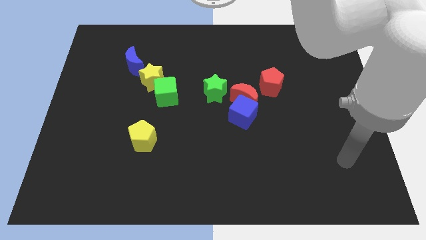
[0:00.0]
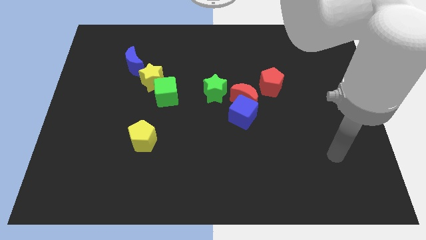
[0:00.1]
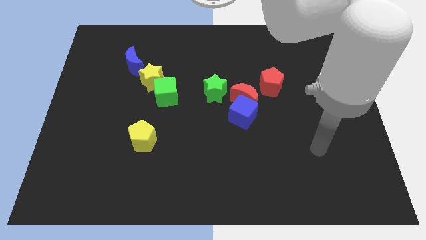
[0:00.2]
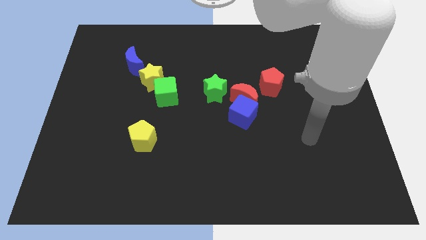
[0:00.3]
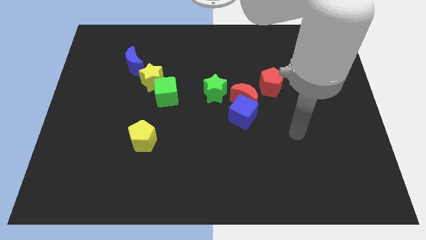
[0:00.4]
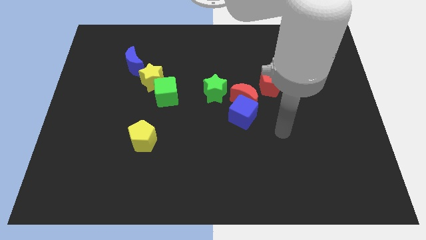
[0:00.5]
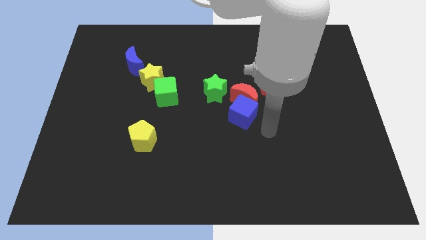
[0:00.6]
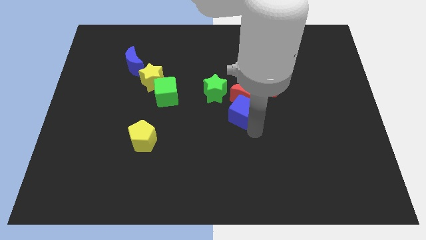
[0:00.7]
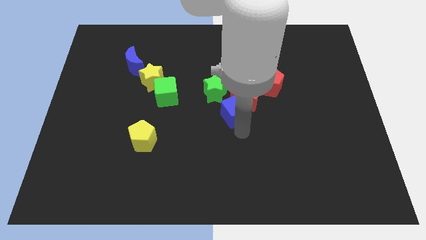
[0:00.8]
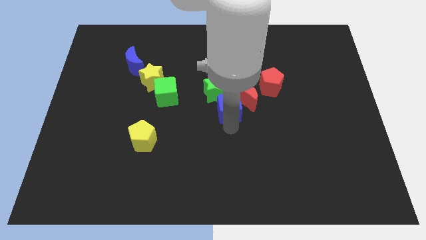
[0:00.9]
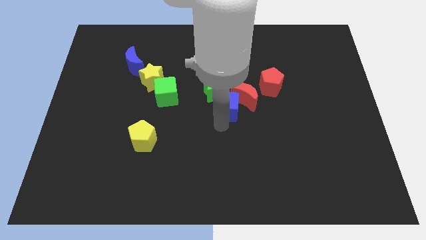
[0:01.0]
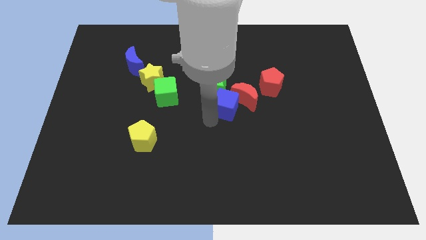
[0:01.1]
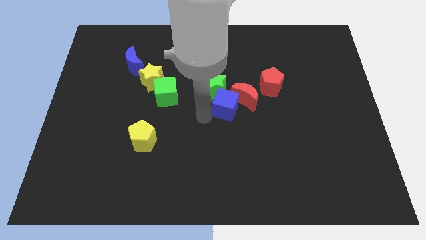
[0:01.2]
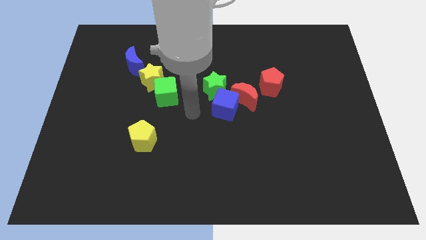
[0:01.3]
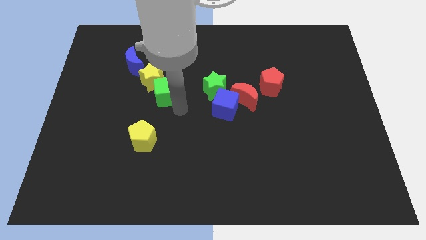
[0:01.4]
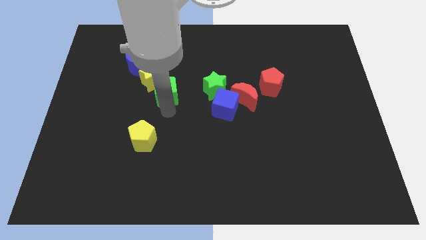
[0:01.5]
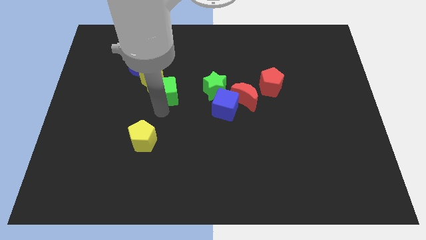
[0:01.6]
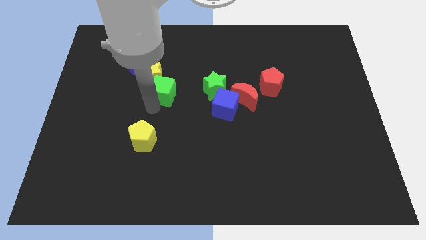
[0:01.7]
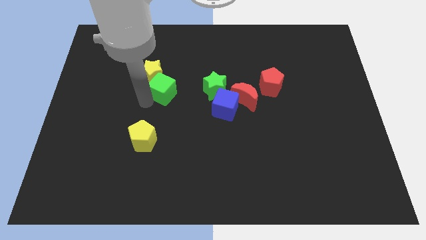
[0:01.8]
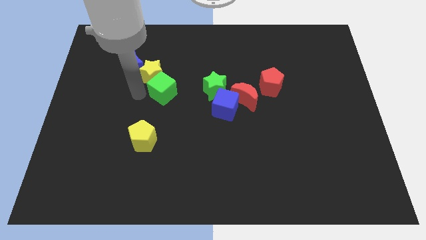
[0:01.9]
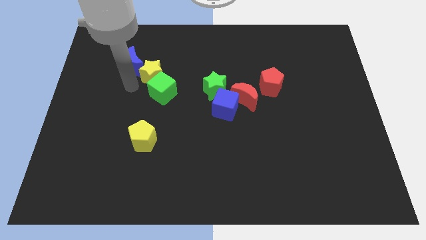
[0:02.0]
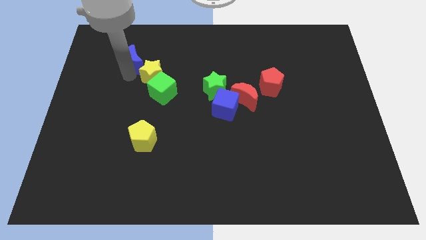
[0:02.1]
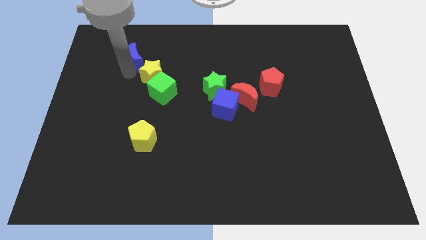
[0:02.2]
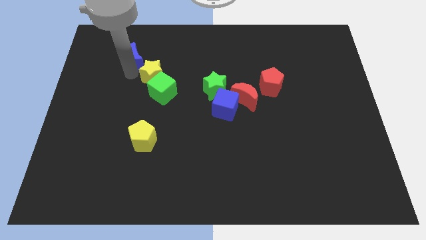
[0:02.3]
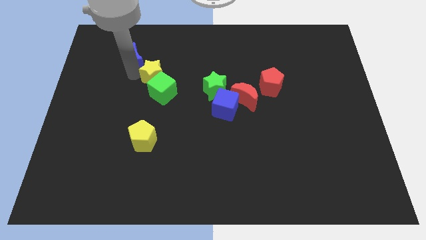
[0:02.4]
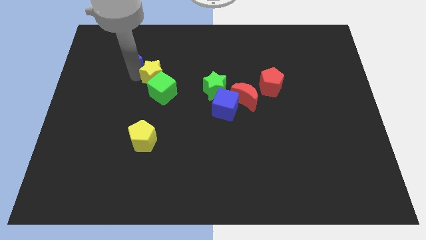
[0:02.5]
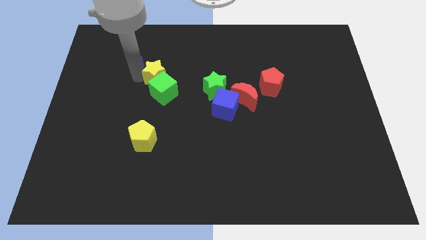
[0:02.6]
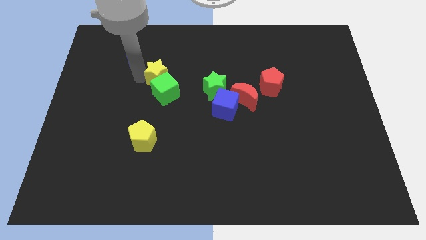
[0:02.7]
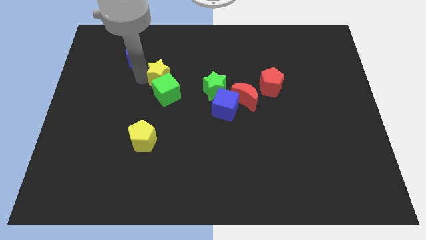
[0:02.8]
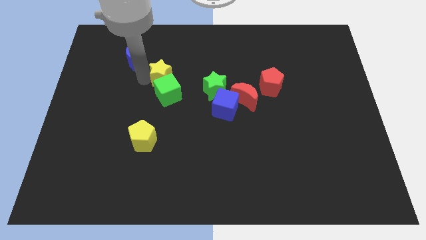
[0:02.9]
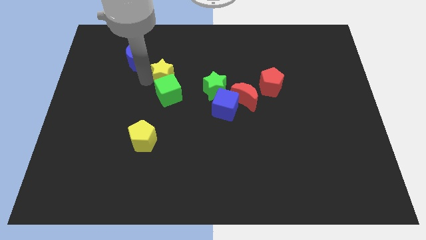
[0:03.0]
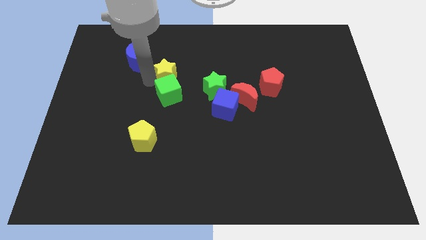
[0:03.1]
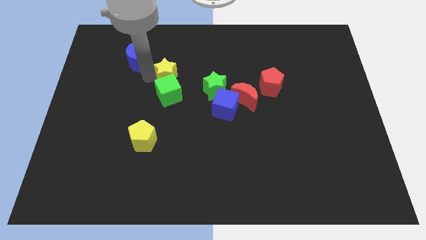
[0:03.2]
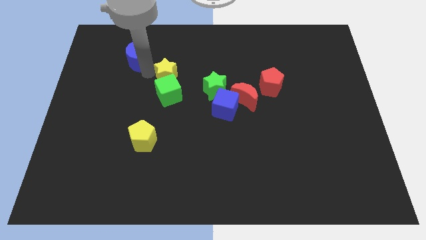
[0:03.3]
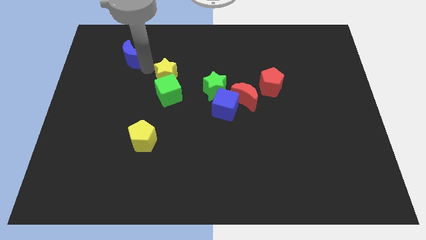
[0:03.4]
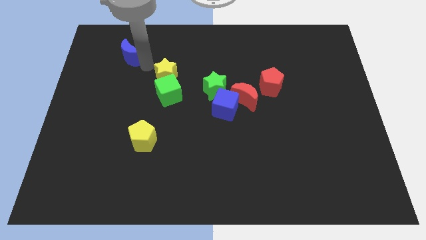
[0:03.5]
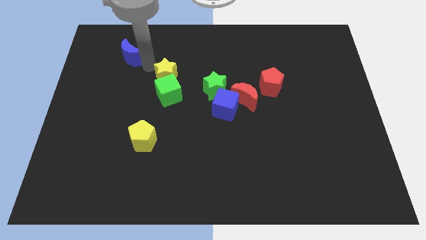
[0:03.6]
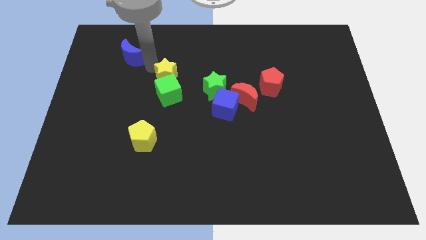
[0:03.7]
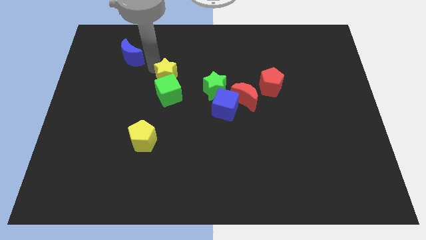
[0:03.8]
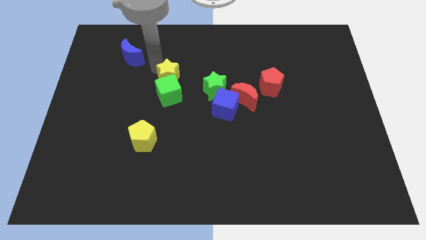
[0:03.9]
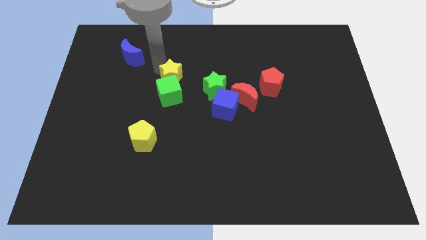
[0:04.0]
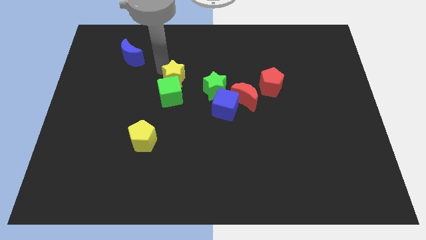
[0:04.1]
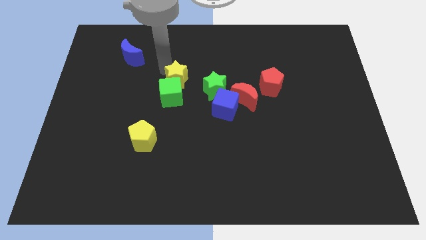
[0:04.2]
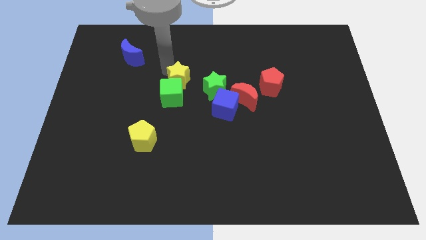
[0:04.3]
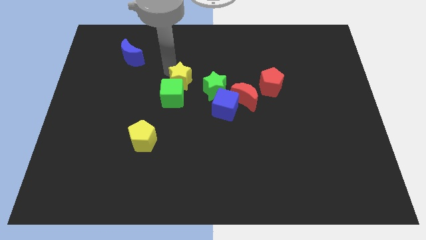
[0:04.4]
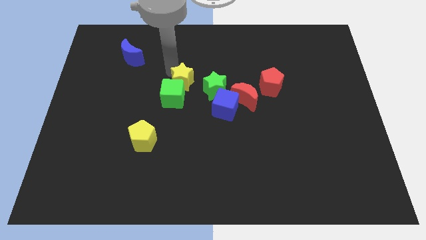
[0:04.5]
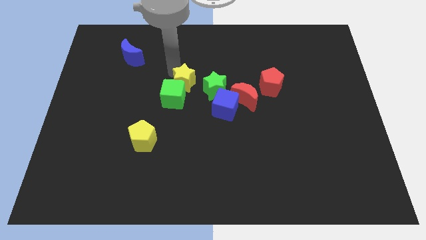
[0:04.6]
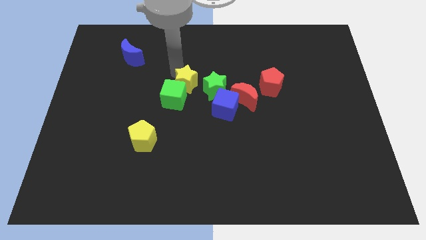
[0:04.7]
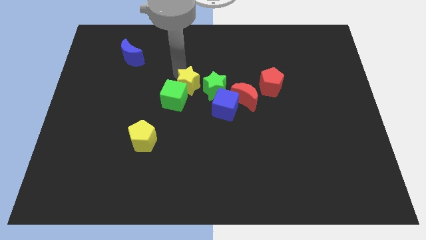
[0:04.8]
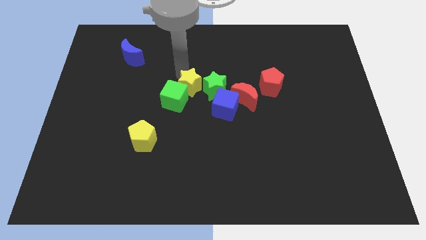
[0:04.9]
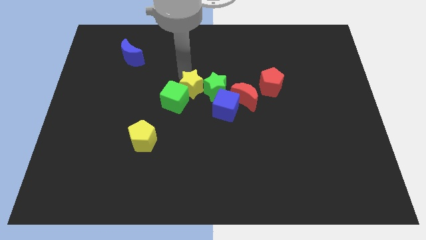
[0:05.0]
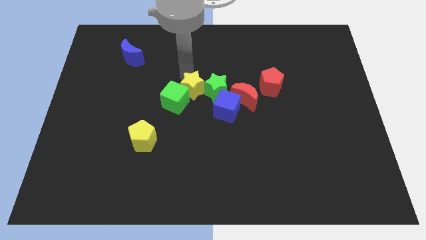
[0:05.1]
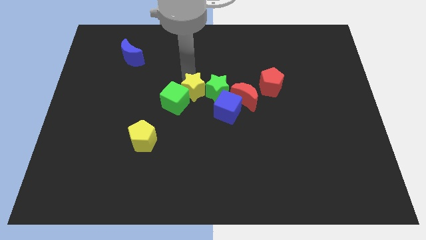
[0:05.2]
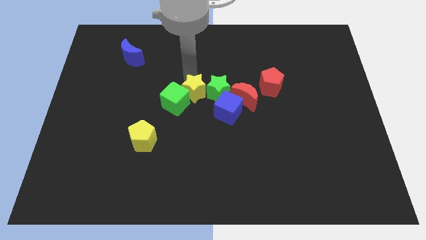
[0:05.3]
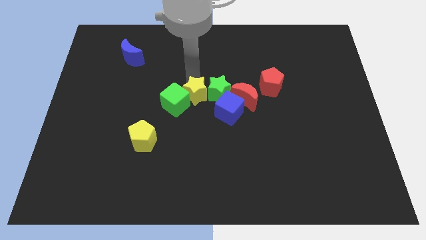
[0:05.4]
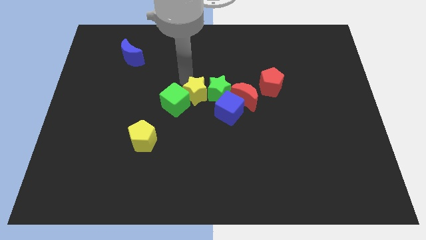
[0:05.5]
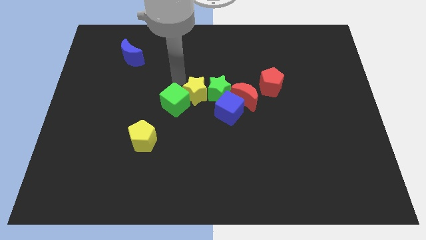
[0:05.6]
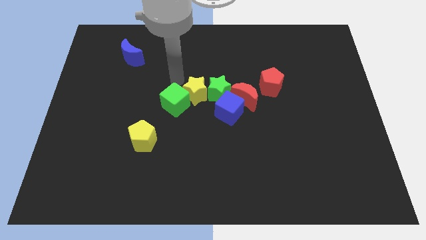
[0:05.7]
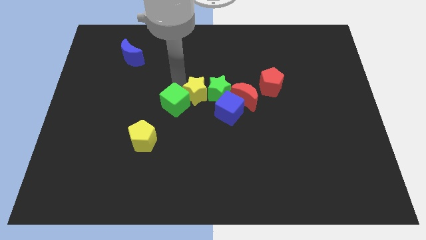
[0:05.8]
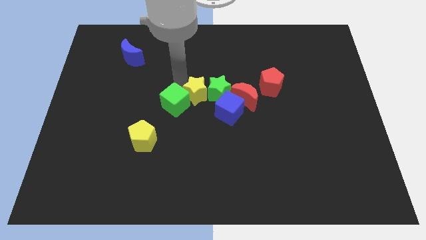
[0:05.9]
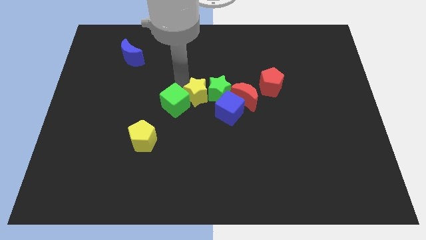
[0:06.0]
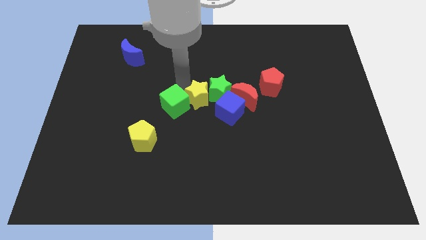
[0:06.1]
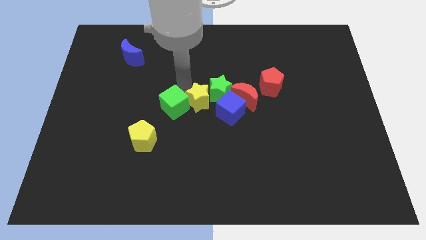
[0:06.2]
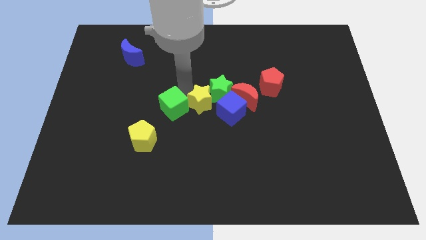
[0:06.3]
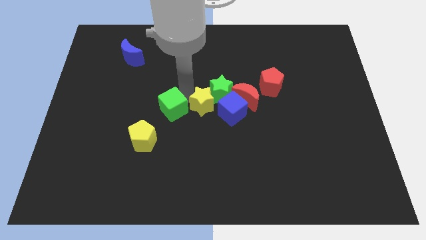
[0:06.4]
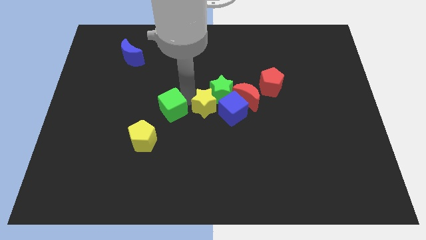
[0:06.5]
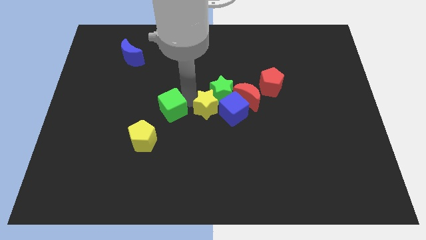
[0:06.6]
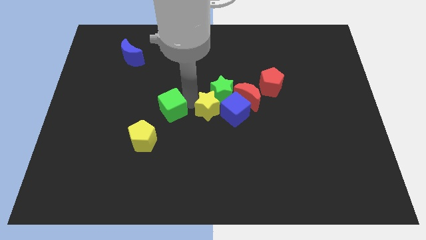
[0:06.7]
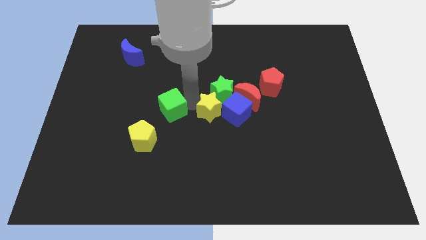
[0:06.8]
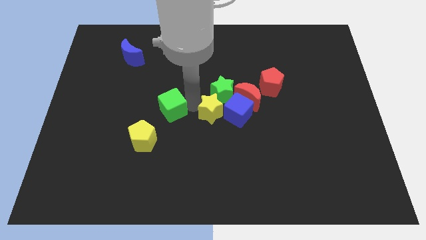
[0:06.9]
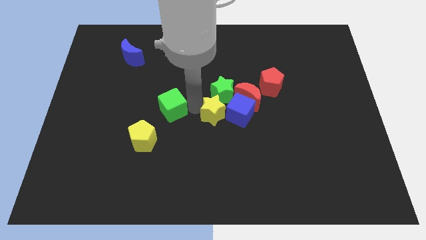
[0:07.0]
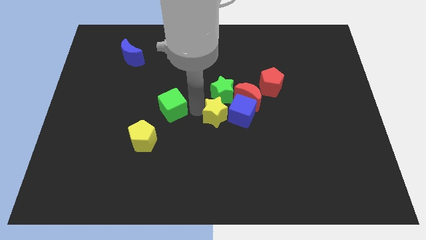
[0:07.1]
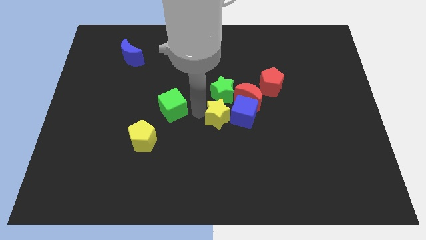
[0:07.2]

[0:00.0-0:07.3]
move the yellow star towards the blue cube
